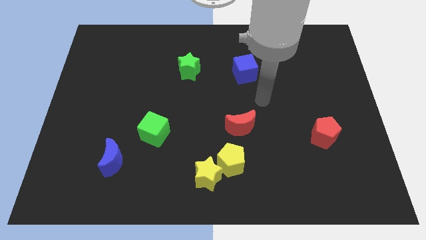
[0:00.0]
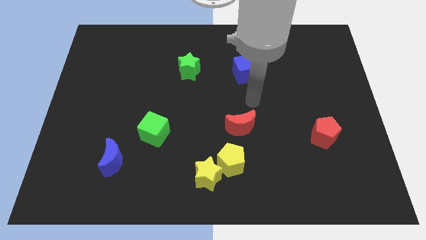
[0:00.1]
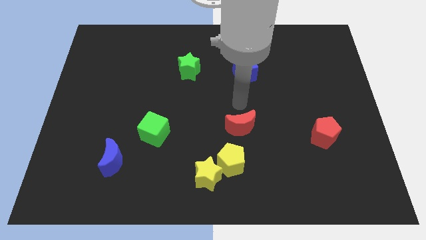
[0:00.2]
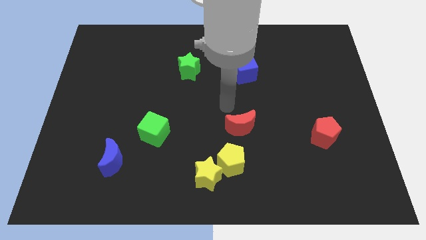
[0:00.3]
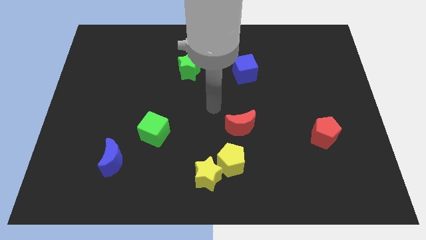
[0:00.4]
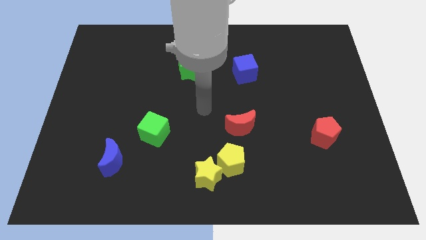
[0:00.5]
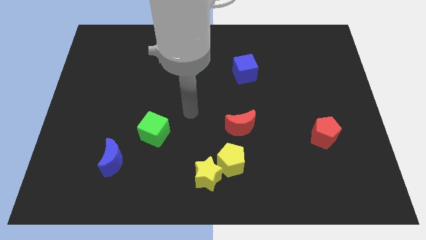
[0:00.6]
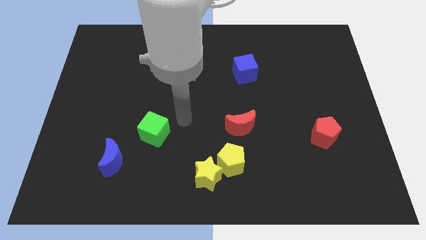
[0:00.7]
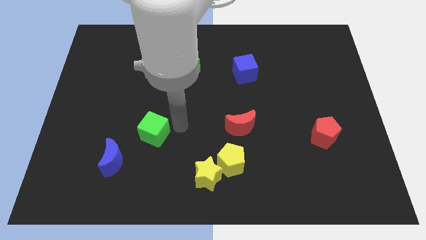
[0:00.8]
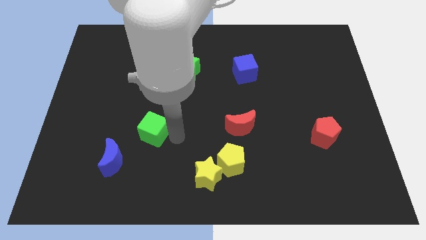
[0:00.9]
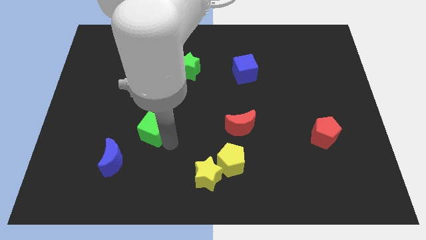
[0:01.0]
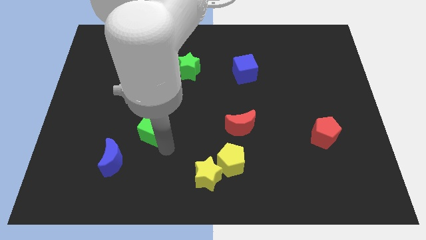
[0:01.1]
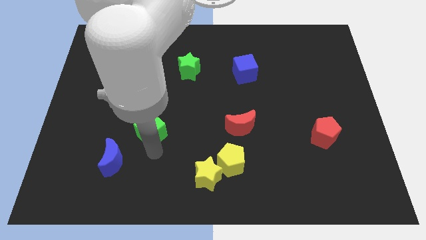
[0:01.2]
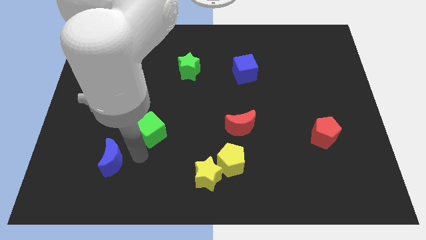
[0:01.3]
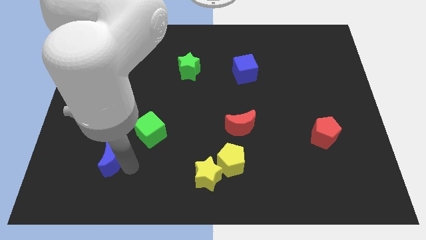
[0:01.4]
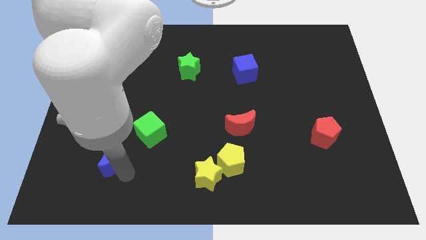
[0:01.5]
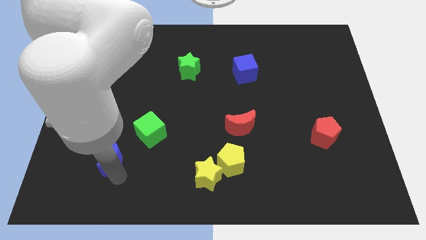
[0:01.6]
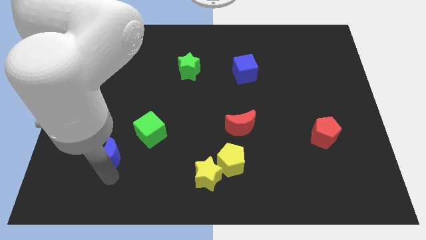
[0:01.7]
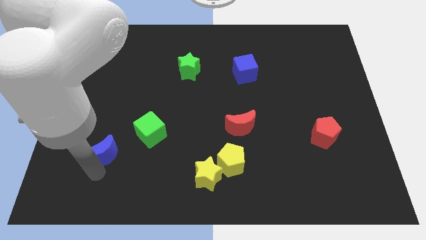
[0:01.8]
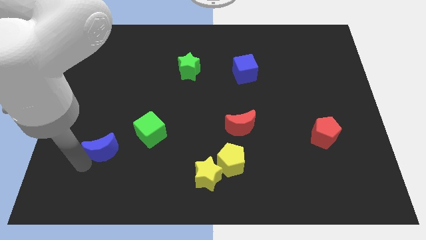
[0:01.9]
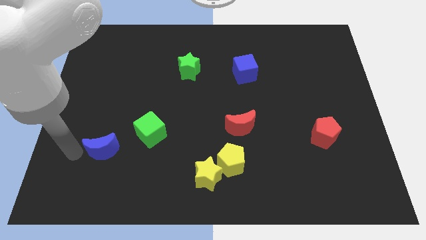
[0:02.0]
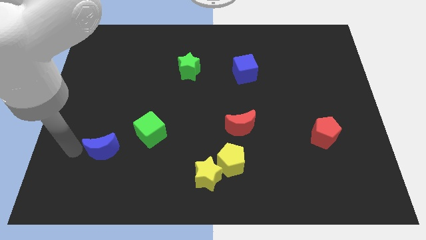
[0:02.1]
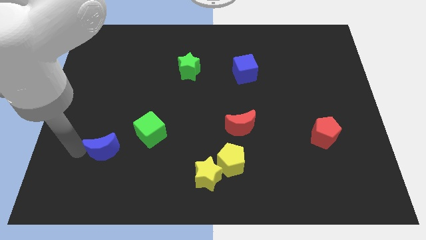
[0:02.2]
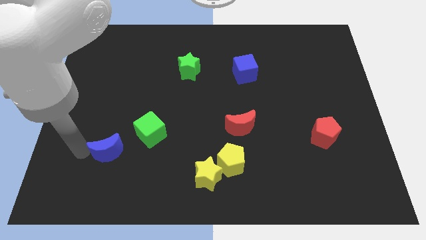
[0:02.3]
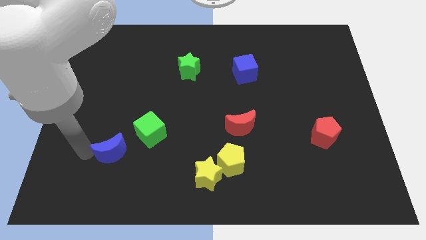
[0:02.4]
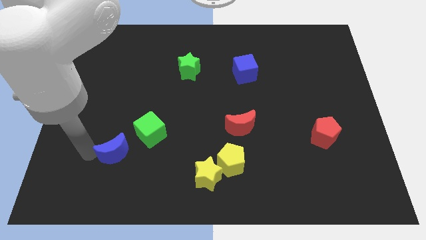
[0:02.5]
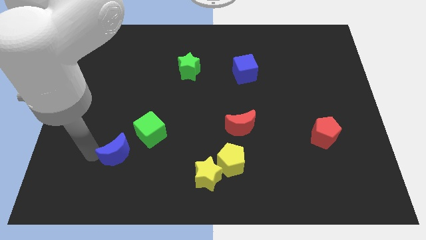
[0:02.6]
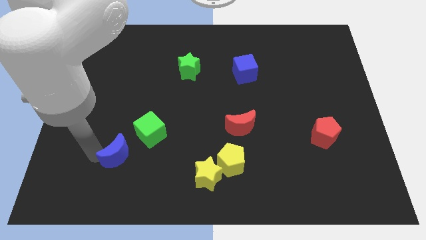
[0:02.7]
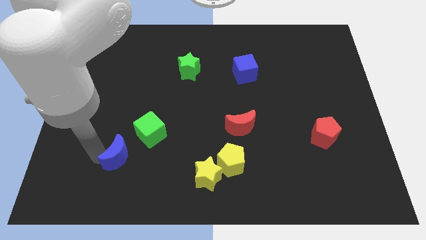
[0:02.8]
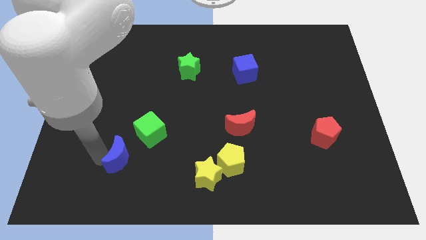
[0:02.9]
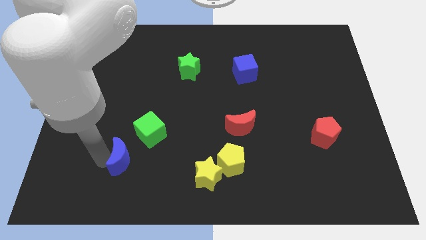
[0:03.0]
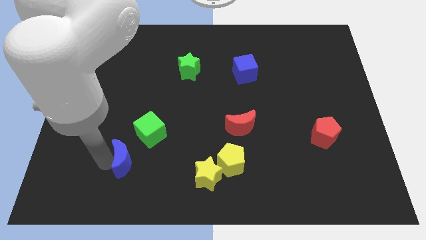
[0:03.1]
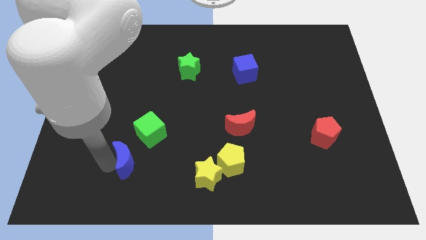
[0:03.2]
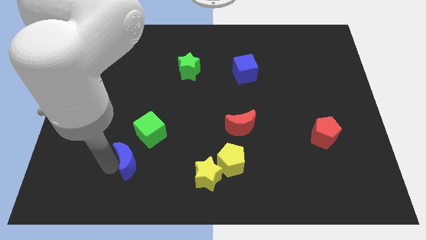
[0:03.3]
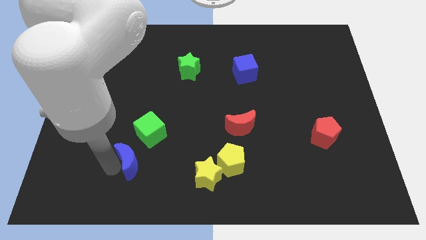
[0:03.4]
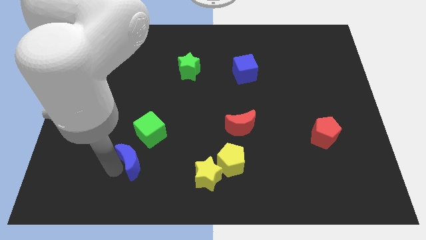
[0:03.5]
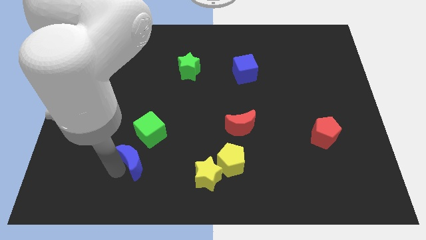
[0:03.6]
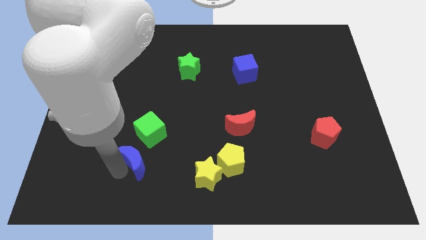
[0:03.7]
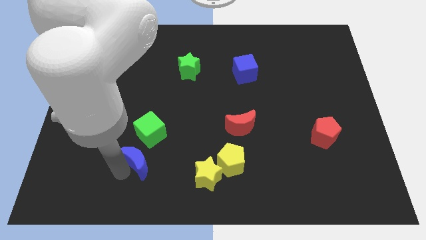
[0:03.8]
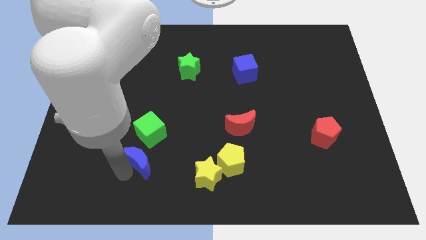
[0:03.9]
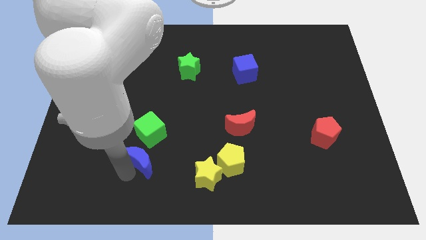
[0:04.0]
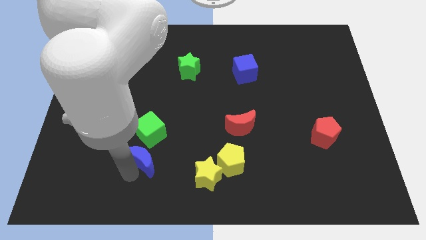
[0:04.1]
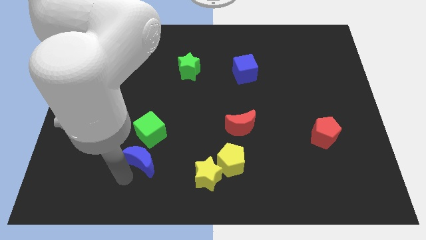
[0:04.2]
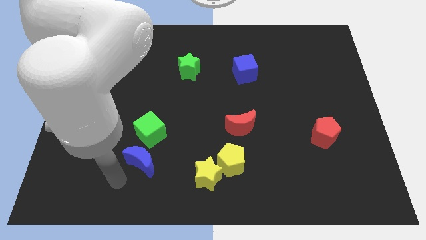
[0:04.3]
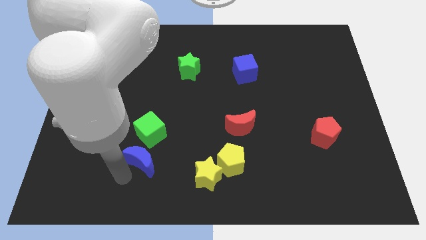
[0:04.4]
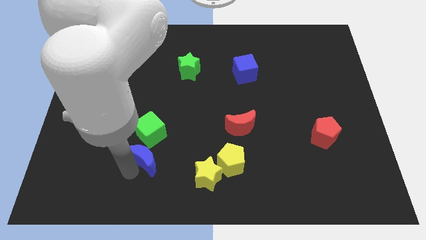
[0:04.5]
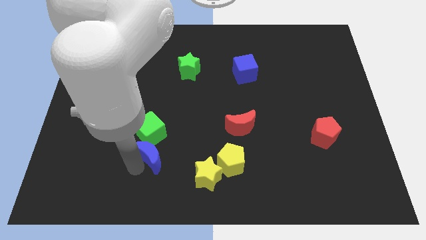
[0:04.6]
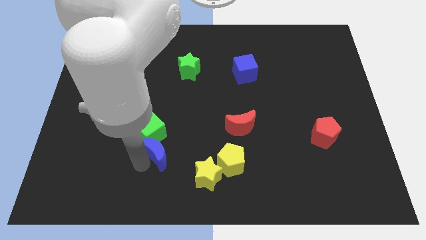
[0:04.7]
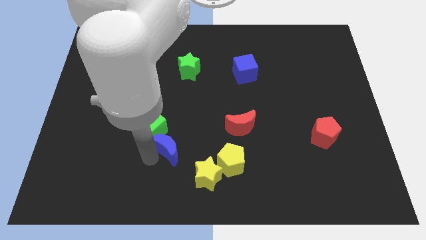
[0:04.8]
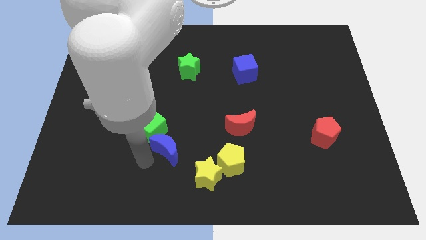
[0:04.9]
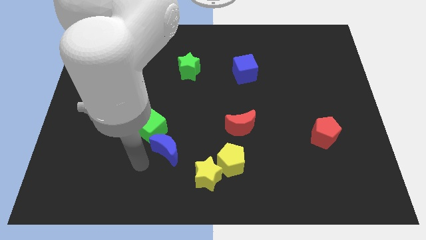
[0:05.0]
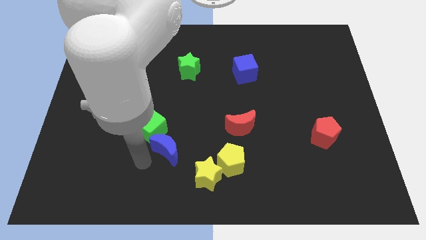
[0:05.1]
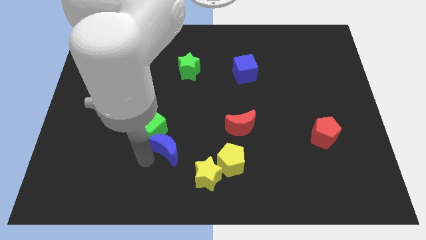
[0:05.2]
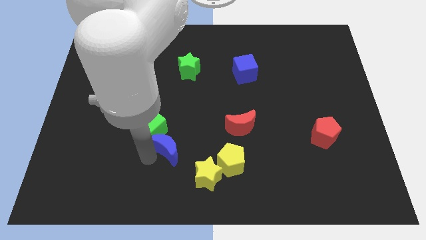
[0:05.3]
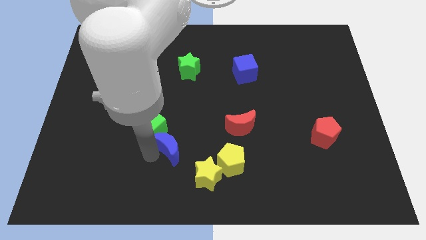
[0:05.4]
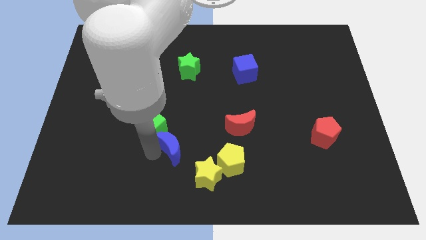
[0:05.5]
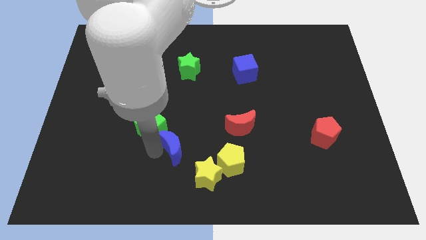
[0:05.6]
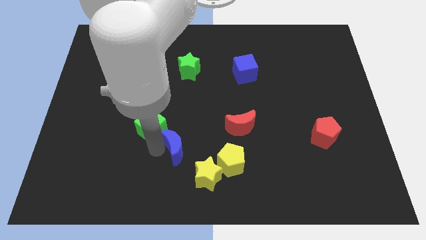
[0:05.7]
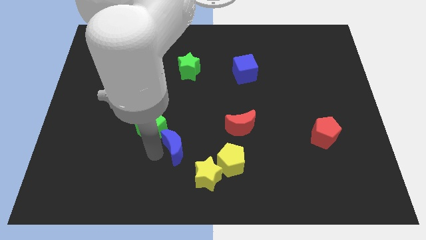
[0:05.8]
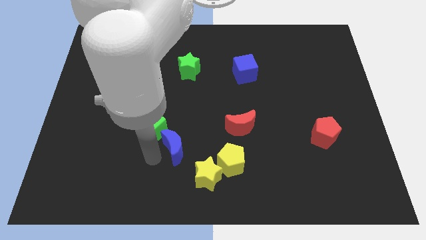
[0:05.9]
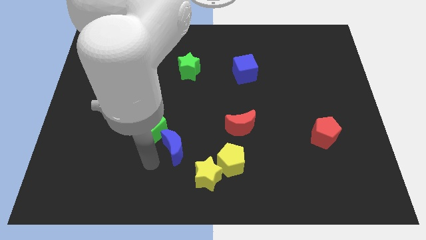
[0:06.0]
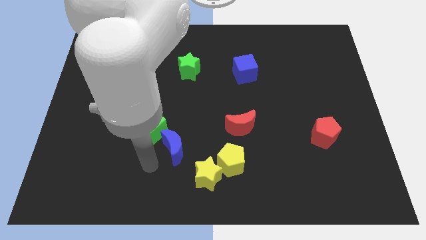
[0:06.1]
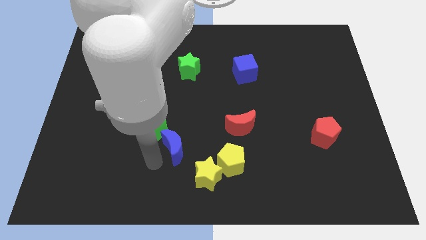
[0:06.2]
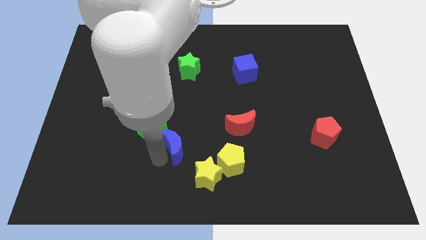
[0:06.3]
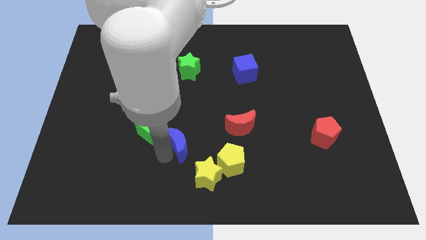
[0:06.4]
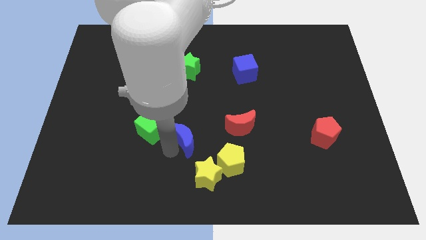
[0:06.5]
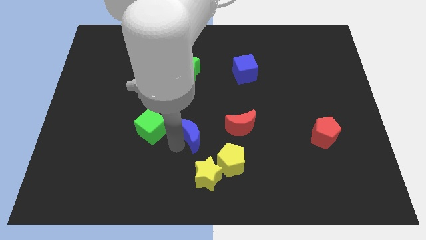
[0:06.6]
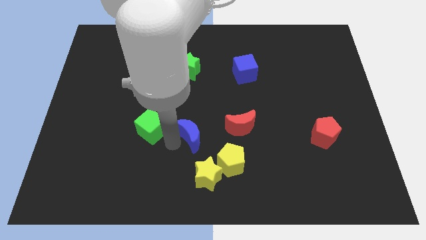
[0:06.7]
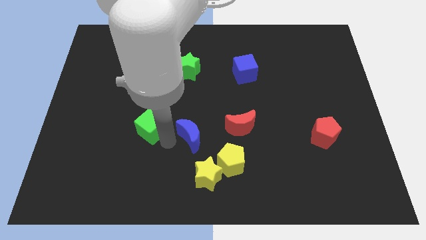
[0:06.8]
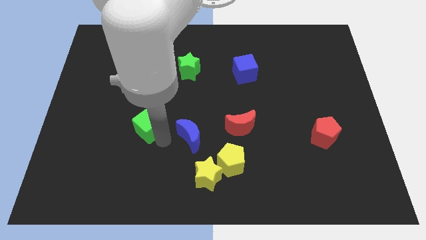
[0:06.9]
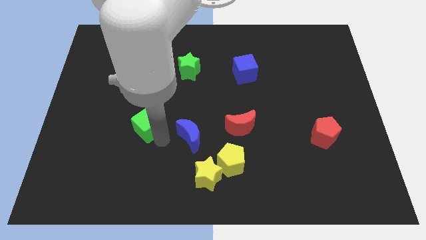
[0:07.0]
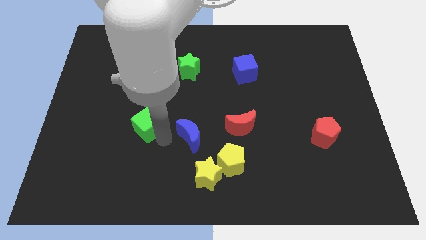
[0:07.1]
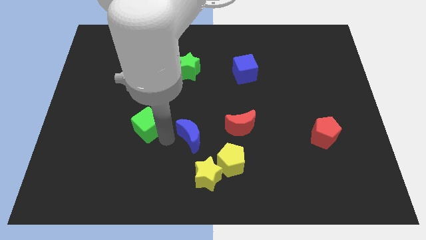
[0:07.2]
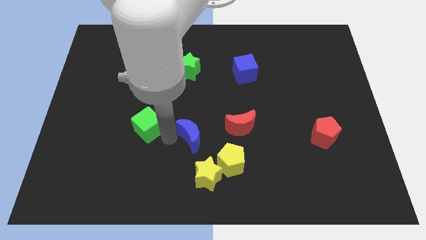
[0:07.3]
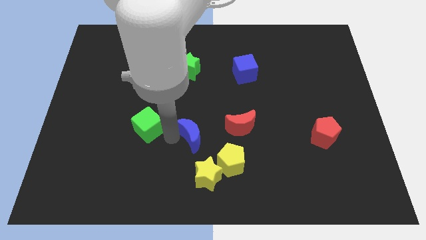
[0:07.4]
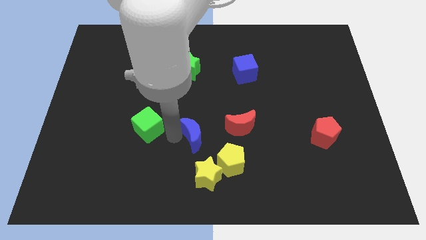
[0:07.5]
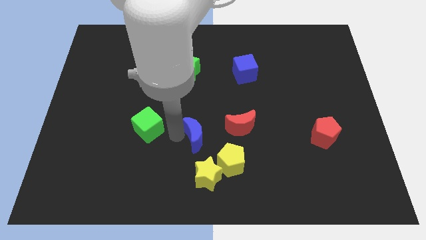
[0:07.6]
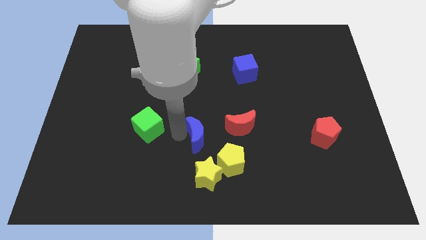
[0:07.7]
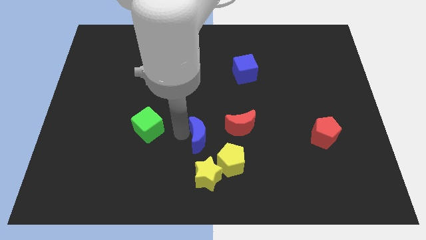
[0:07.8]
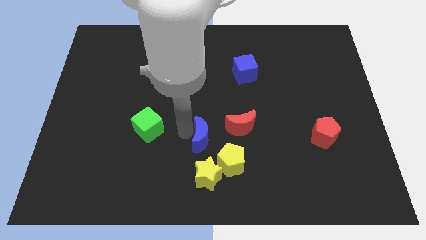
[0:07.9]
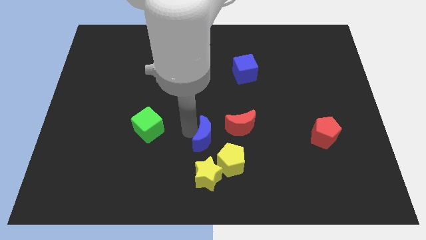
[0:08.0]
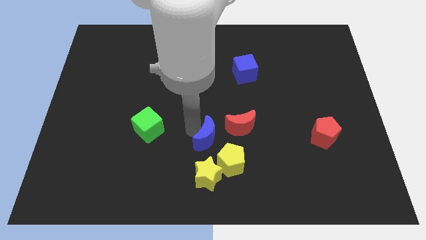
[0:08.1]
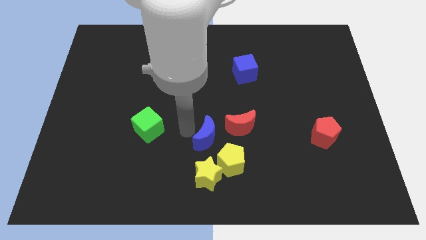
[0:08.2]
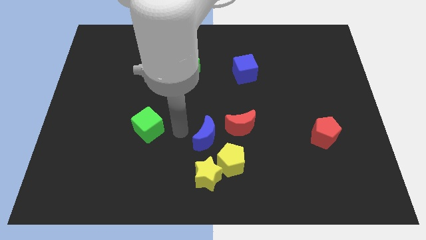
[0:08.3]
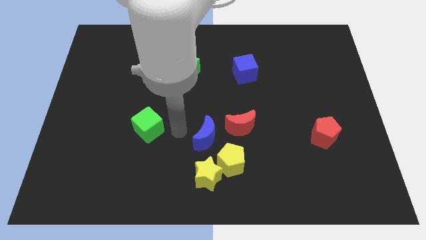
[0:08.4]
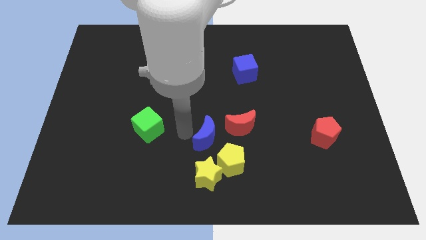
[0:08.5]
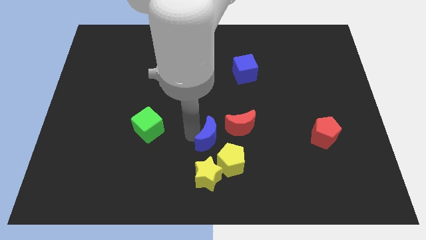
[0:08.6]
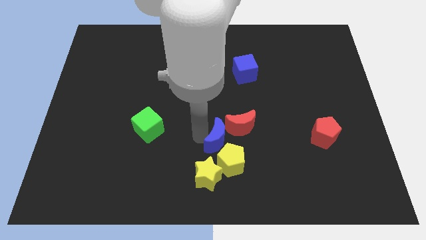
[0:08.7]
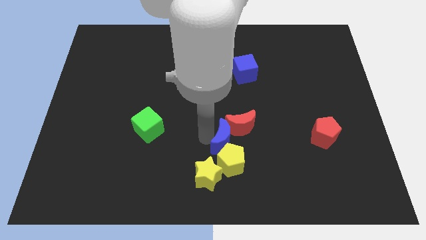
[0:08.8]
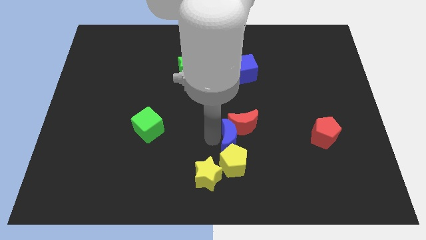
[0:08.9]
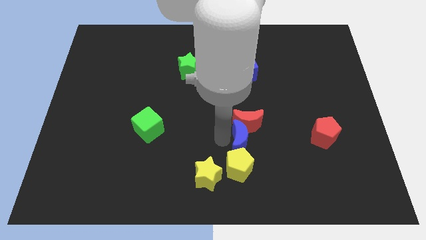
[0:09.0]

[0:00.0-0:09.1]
push the blue moon to the bottom right of the red moon
